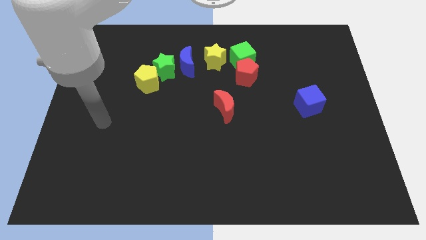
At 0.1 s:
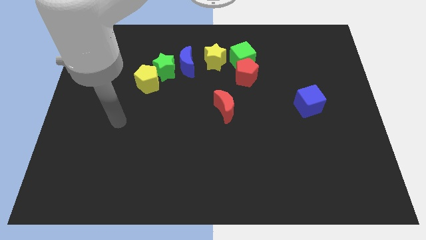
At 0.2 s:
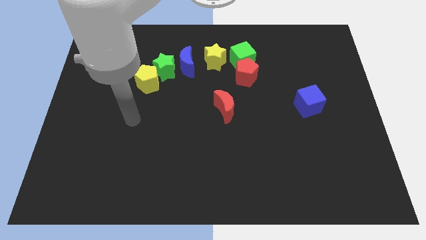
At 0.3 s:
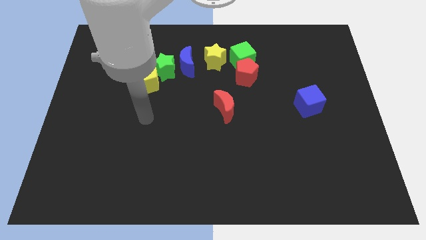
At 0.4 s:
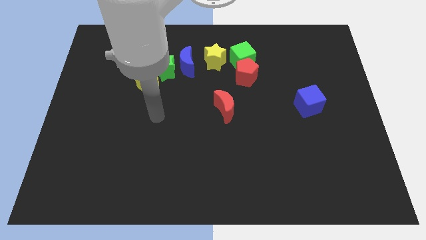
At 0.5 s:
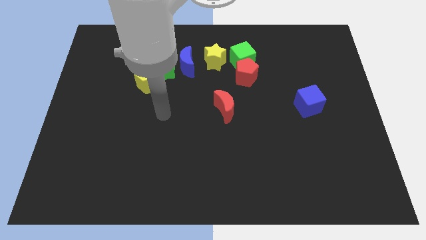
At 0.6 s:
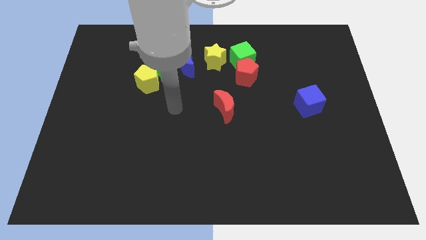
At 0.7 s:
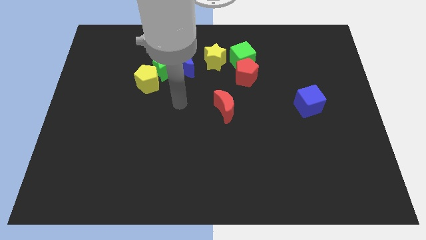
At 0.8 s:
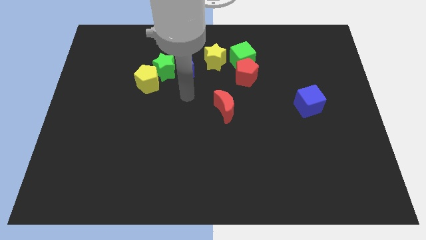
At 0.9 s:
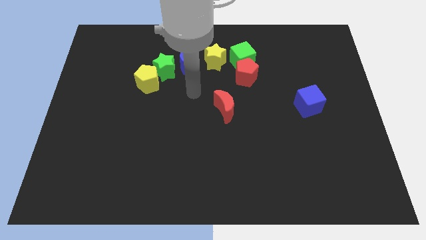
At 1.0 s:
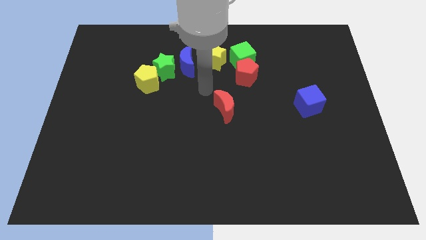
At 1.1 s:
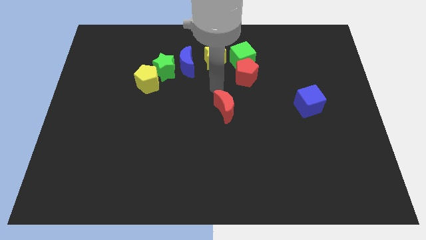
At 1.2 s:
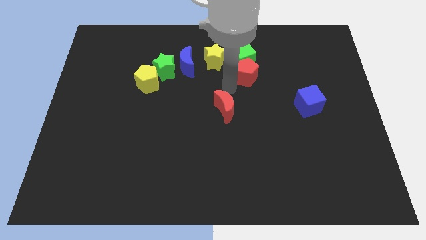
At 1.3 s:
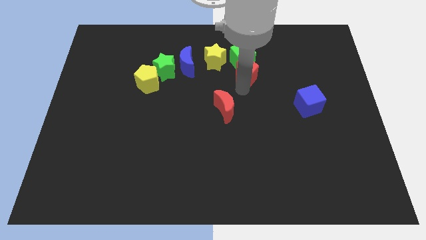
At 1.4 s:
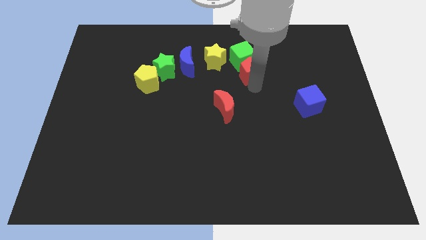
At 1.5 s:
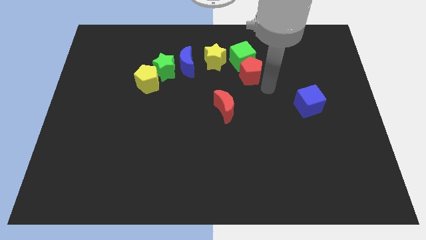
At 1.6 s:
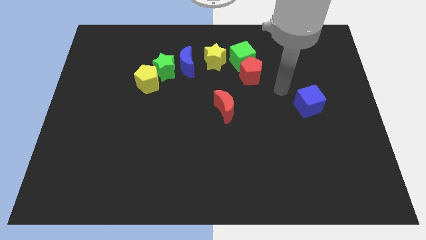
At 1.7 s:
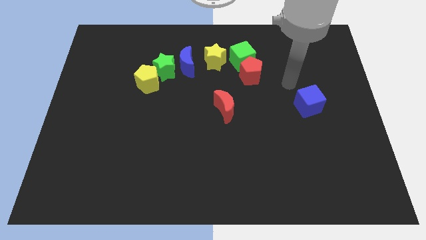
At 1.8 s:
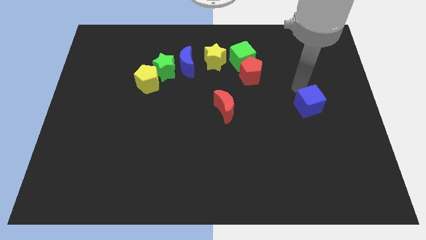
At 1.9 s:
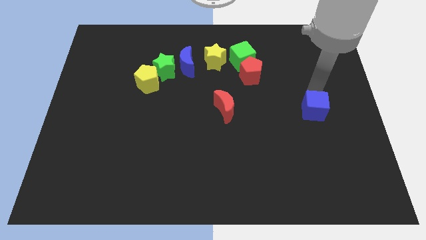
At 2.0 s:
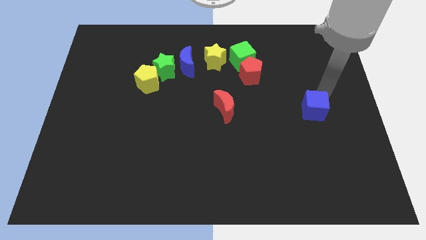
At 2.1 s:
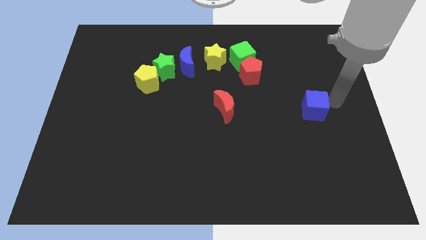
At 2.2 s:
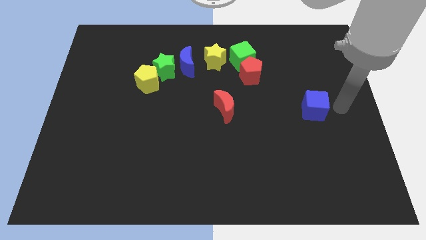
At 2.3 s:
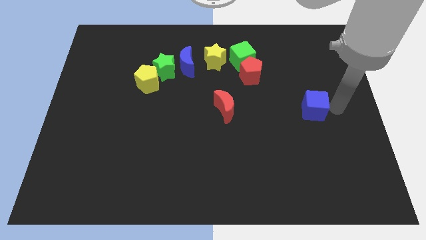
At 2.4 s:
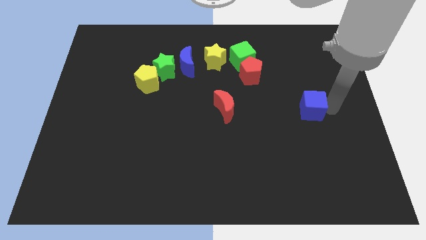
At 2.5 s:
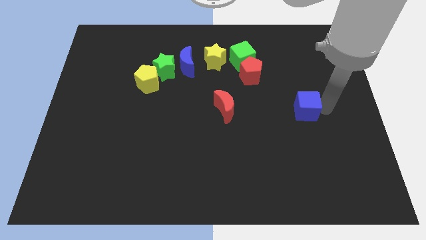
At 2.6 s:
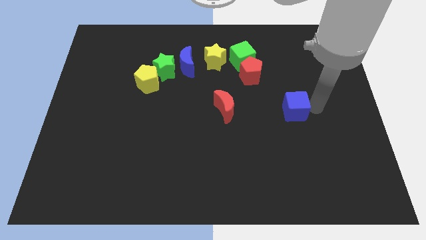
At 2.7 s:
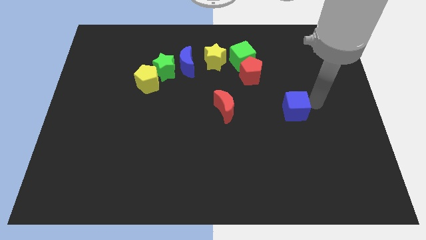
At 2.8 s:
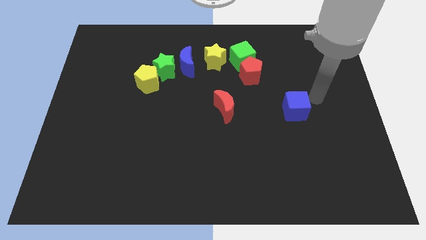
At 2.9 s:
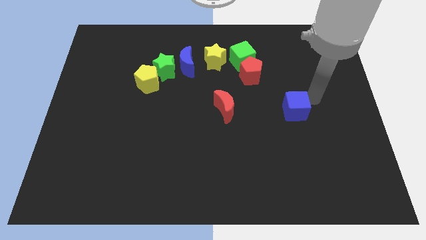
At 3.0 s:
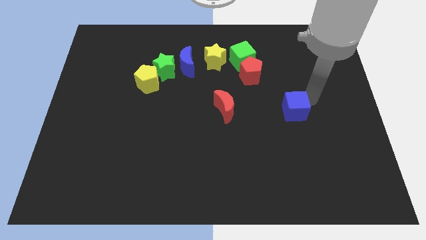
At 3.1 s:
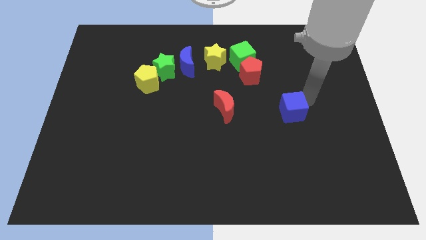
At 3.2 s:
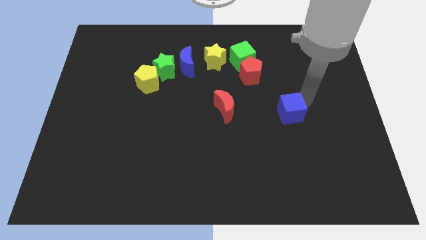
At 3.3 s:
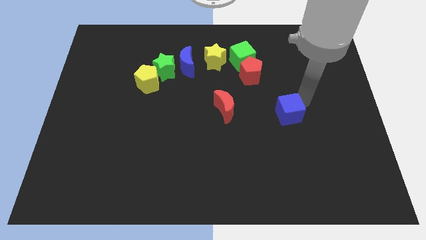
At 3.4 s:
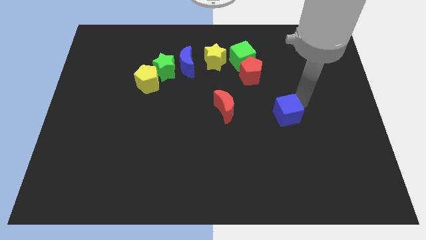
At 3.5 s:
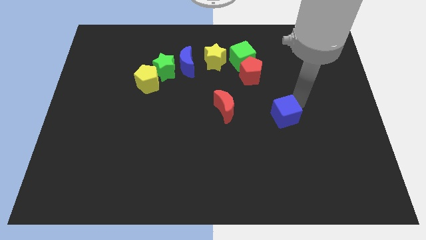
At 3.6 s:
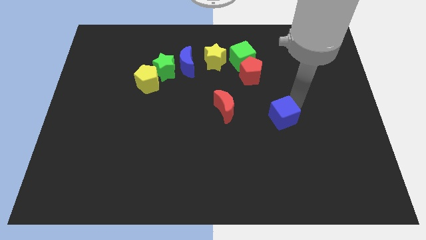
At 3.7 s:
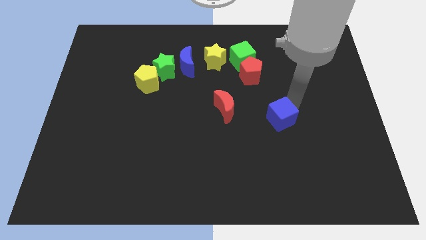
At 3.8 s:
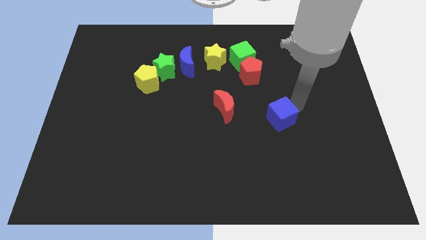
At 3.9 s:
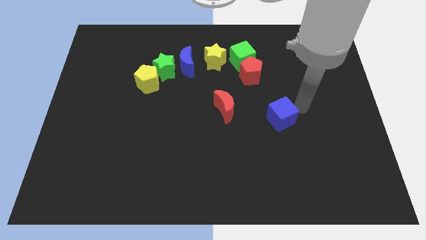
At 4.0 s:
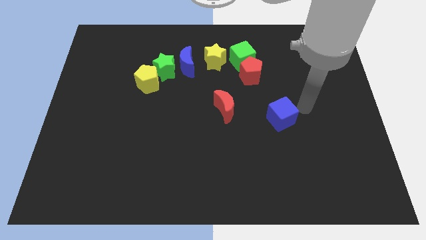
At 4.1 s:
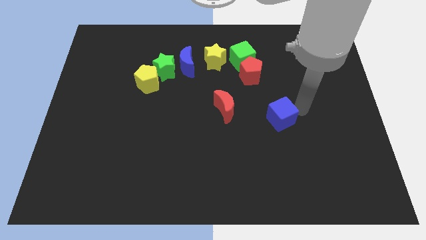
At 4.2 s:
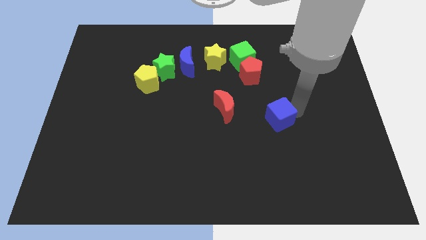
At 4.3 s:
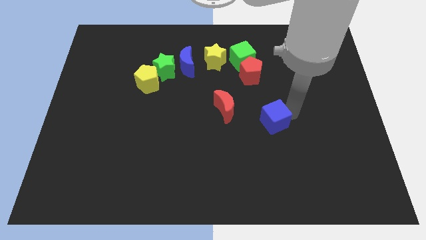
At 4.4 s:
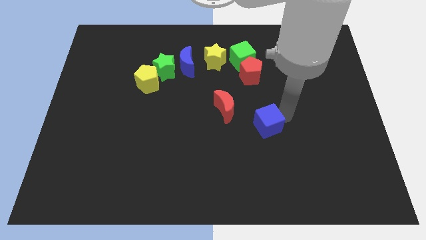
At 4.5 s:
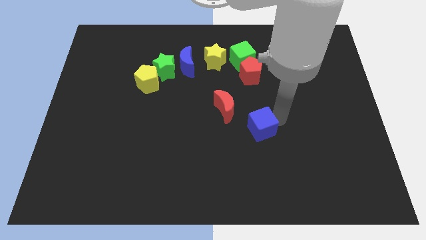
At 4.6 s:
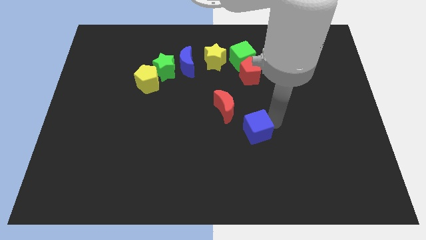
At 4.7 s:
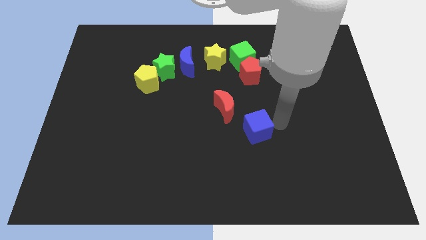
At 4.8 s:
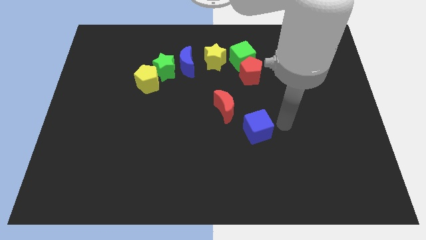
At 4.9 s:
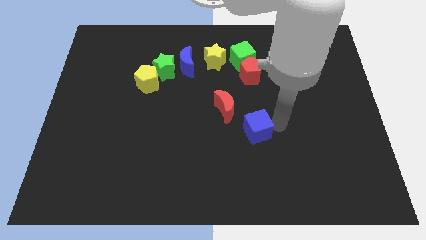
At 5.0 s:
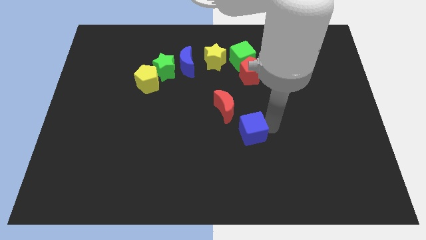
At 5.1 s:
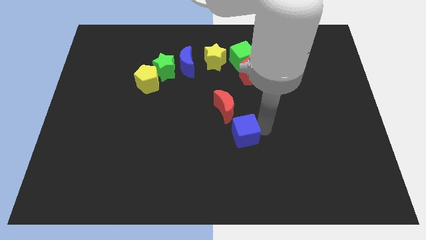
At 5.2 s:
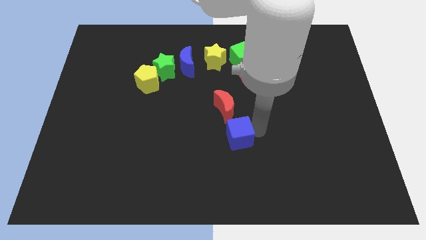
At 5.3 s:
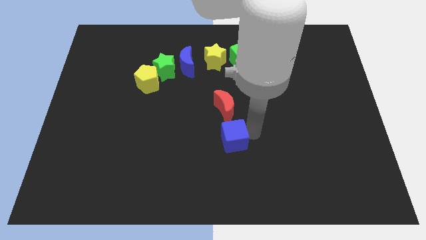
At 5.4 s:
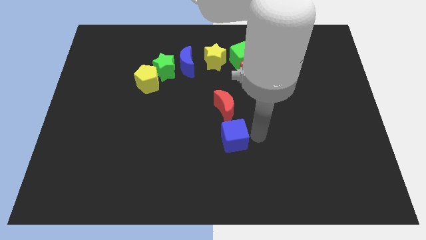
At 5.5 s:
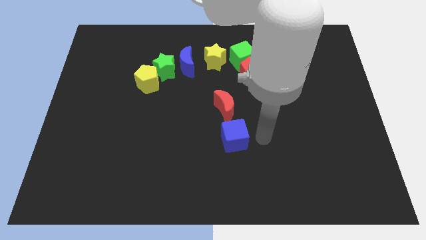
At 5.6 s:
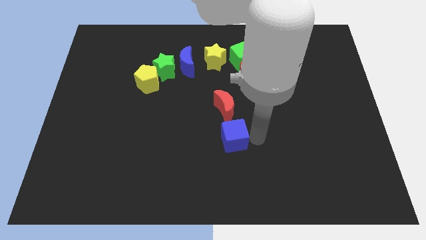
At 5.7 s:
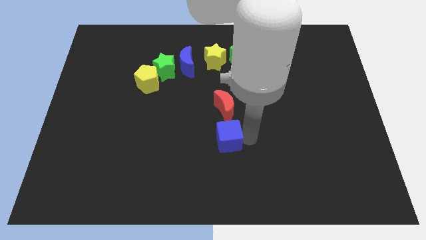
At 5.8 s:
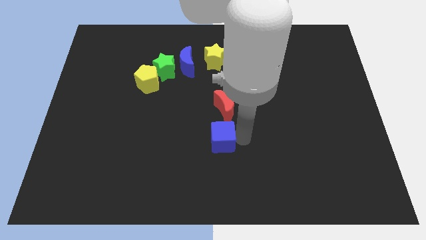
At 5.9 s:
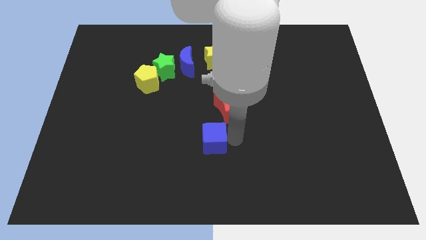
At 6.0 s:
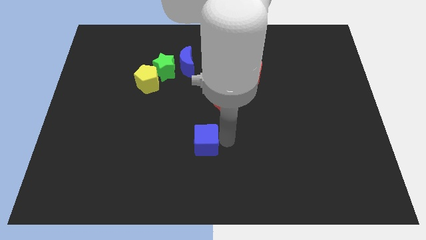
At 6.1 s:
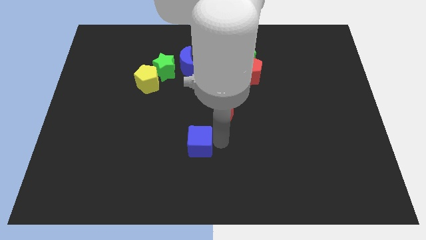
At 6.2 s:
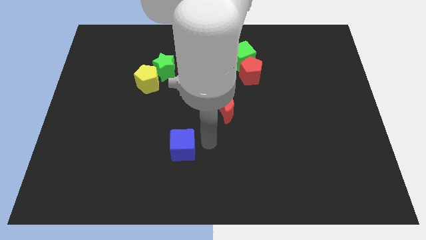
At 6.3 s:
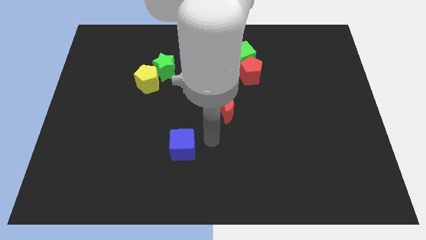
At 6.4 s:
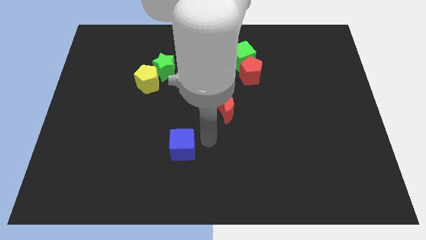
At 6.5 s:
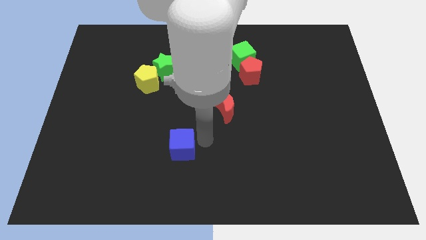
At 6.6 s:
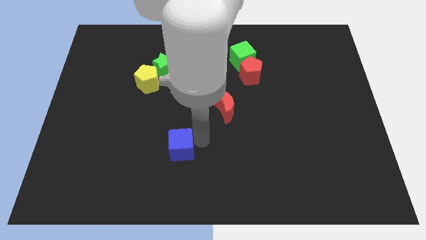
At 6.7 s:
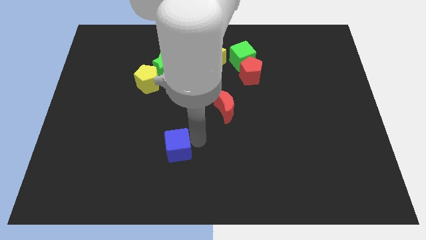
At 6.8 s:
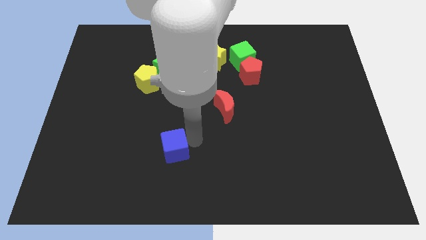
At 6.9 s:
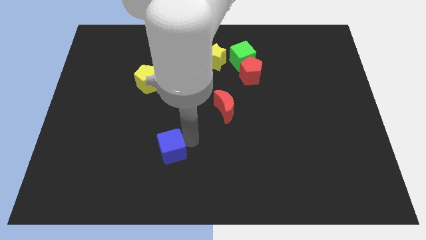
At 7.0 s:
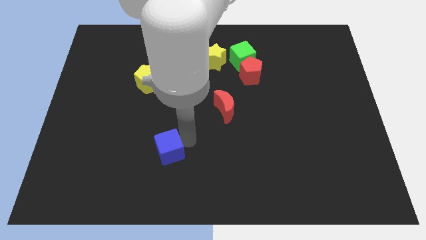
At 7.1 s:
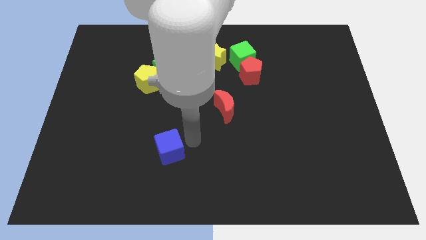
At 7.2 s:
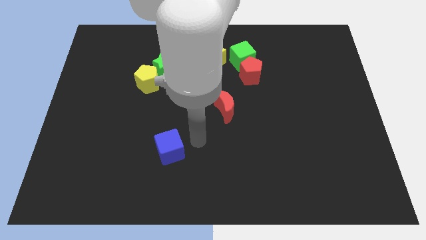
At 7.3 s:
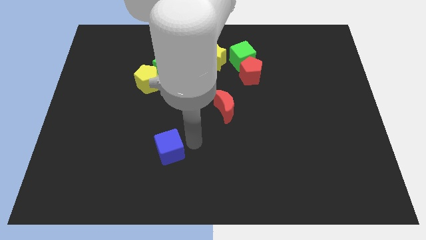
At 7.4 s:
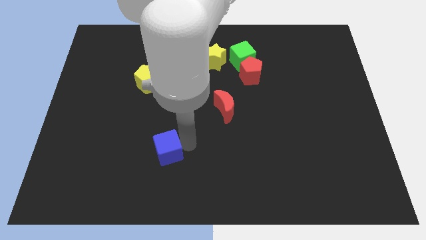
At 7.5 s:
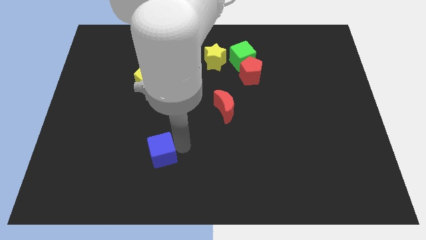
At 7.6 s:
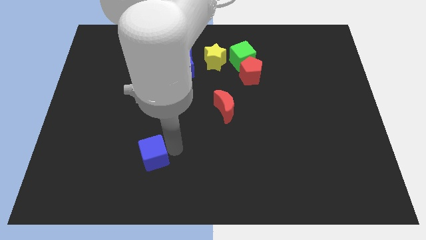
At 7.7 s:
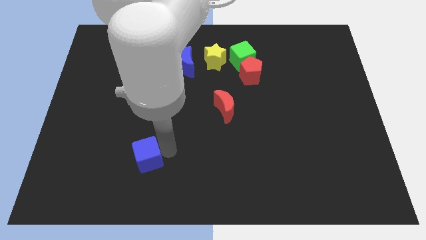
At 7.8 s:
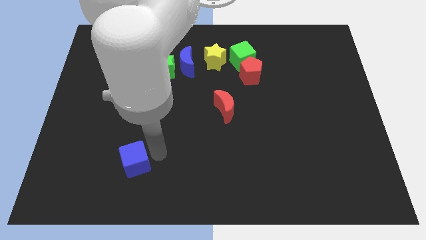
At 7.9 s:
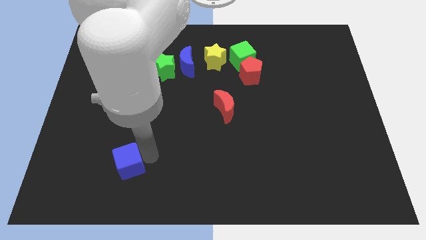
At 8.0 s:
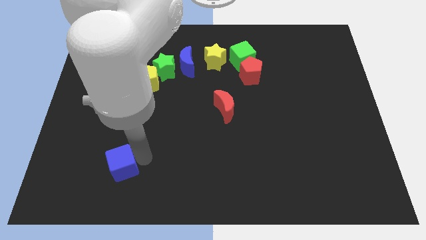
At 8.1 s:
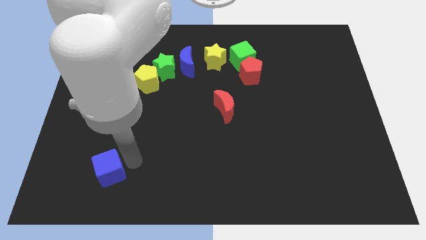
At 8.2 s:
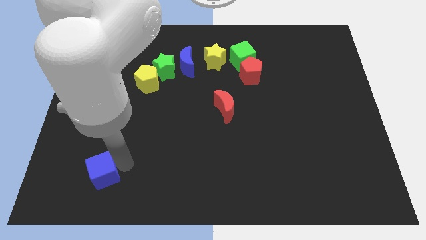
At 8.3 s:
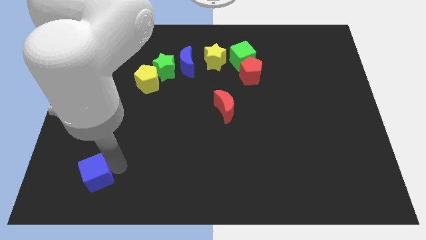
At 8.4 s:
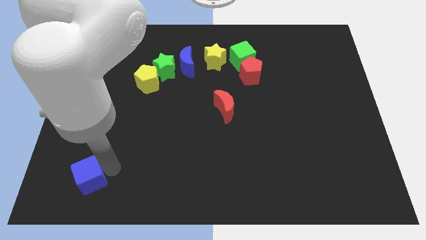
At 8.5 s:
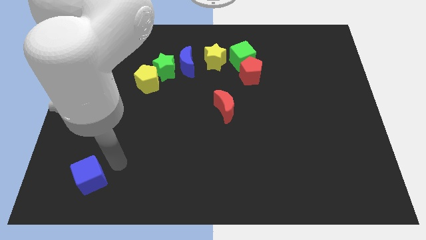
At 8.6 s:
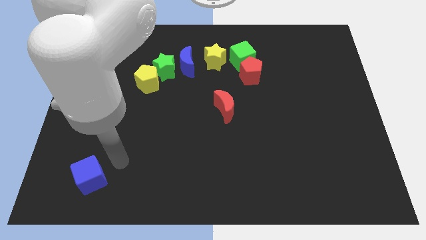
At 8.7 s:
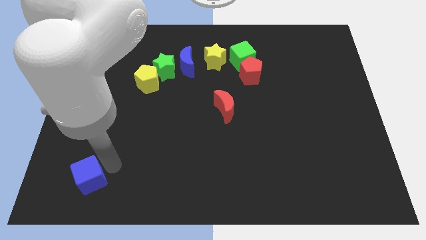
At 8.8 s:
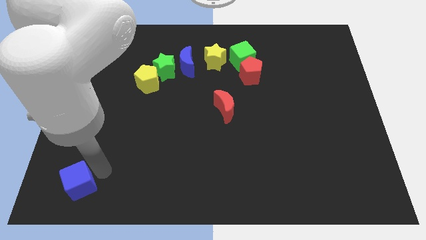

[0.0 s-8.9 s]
put the blue cube to the lower left corner
